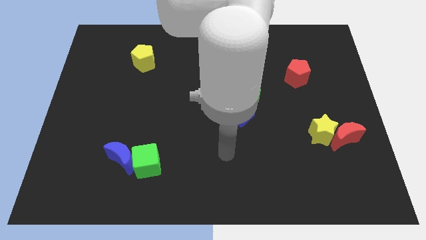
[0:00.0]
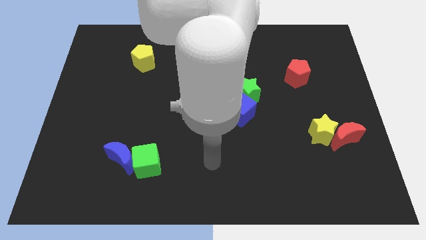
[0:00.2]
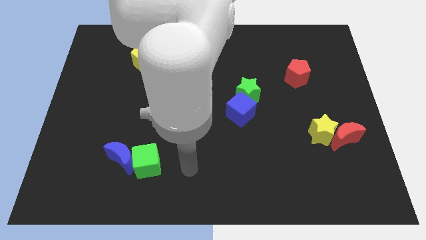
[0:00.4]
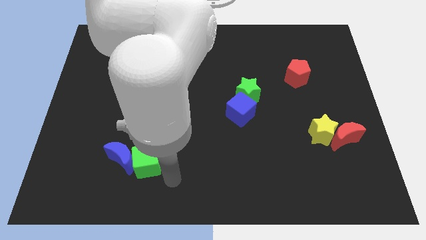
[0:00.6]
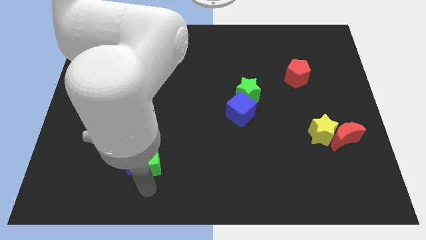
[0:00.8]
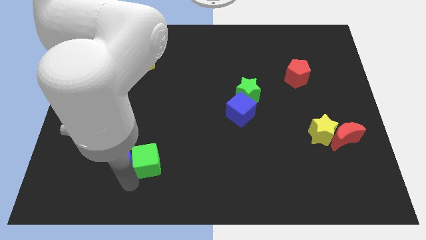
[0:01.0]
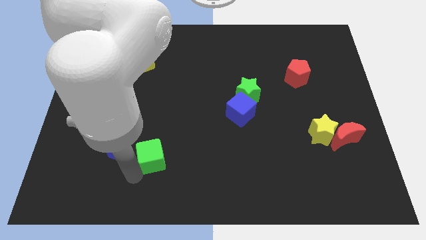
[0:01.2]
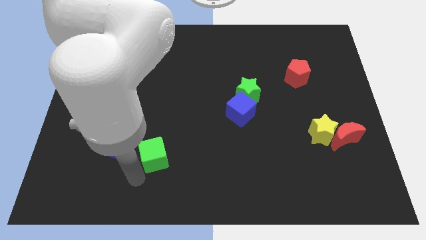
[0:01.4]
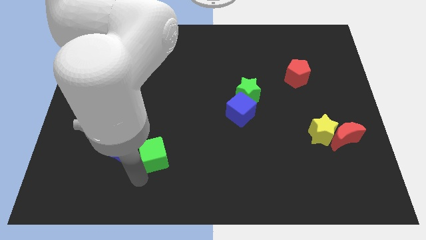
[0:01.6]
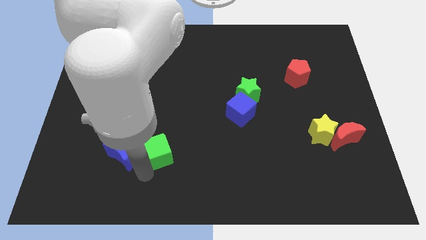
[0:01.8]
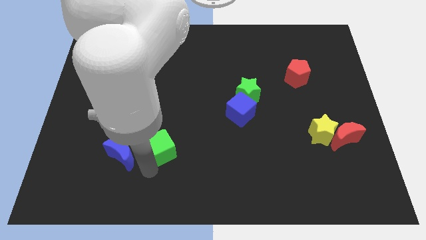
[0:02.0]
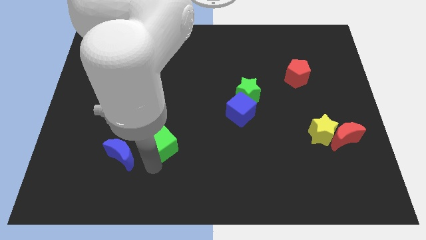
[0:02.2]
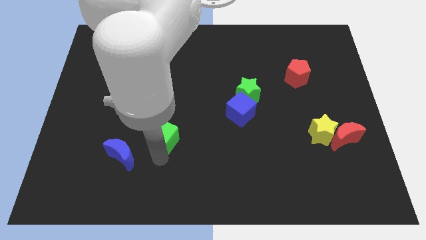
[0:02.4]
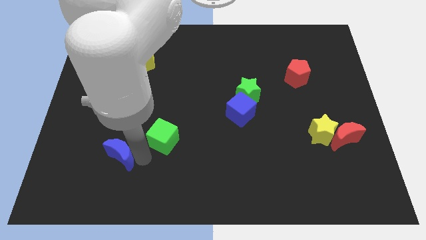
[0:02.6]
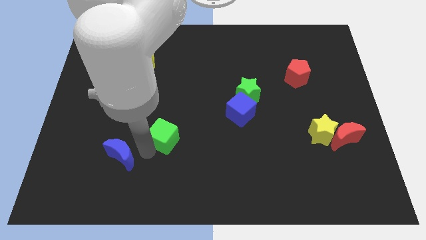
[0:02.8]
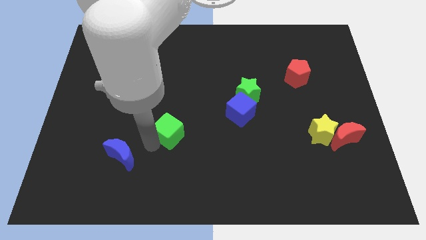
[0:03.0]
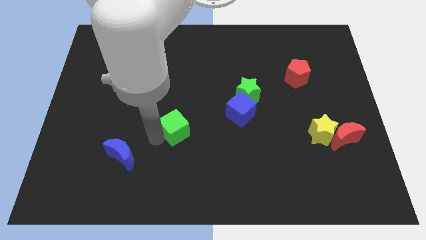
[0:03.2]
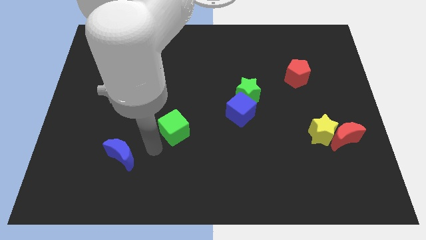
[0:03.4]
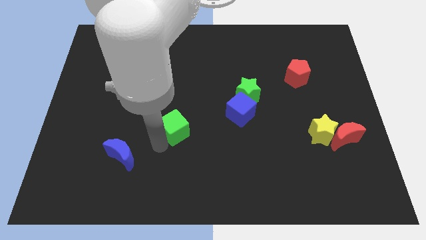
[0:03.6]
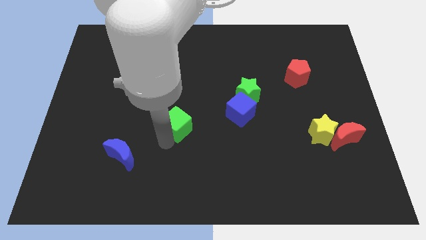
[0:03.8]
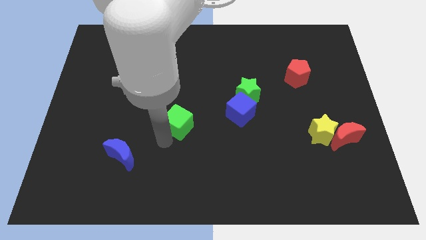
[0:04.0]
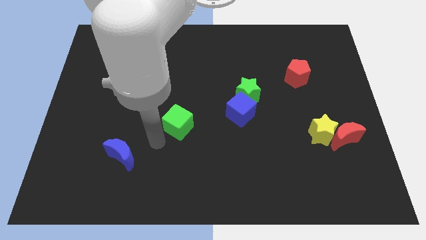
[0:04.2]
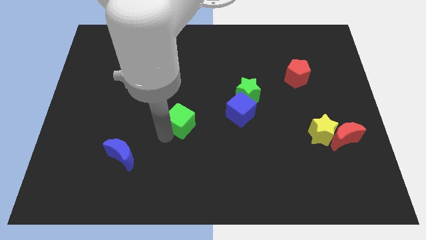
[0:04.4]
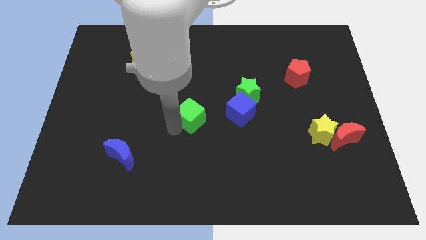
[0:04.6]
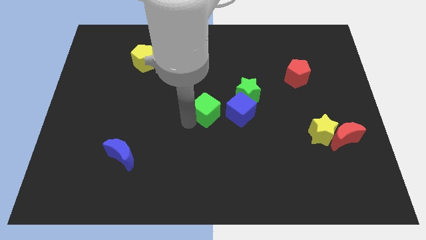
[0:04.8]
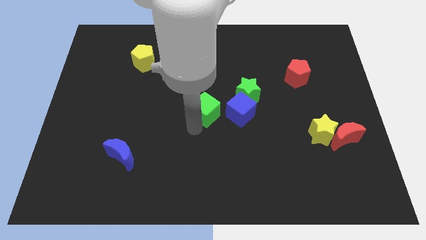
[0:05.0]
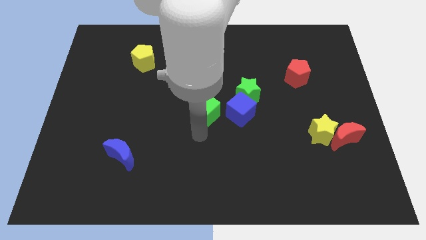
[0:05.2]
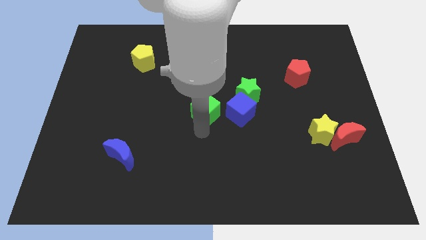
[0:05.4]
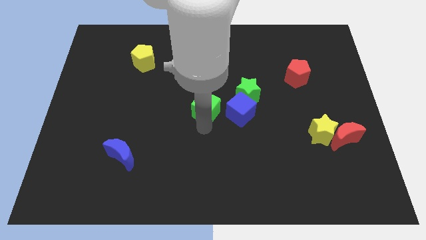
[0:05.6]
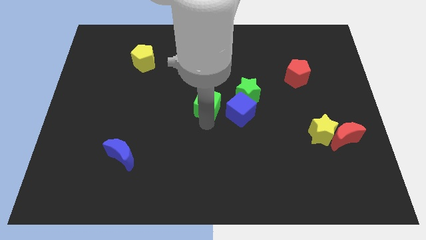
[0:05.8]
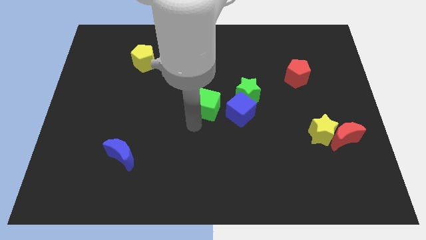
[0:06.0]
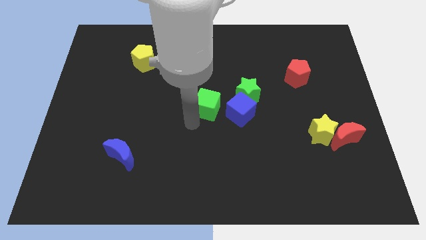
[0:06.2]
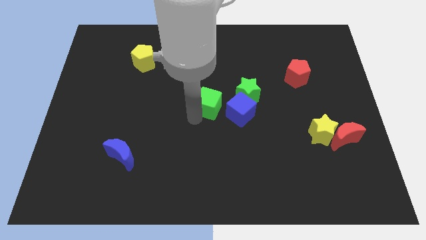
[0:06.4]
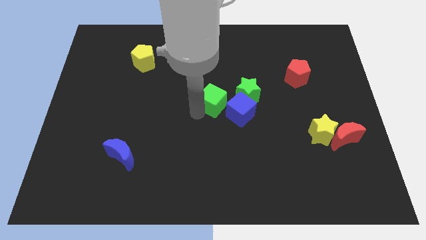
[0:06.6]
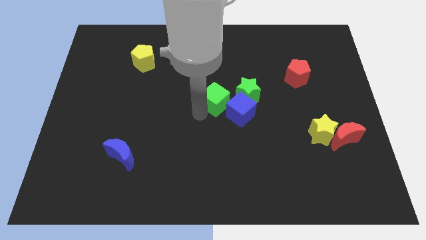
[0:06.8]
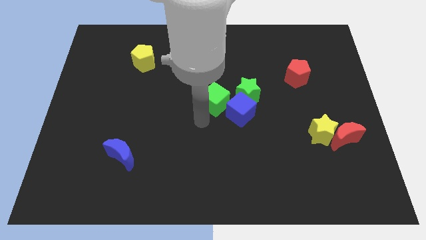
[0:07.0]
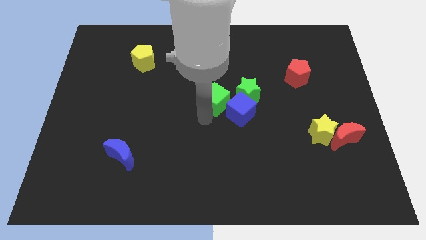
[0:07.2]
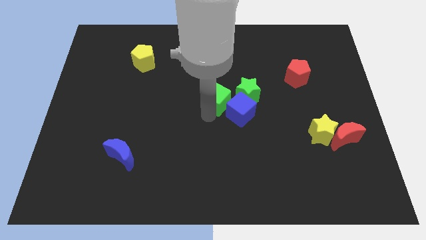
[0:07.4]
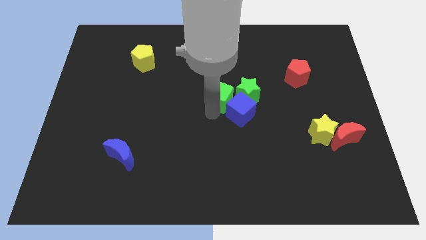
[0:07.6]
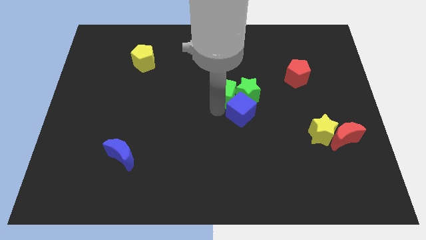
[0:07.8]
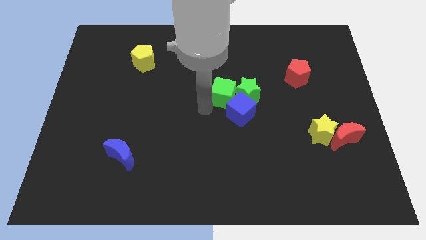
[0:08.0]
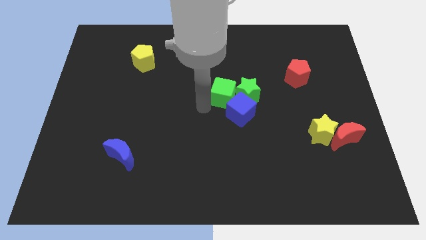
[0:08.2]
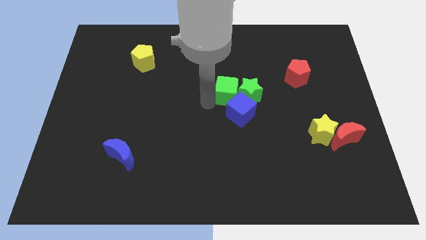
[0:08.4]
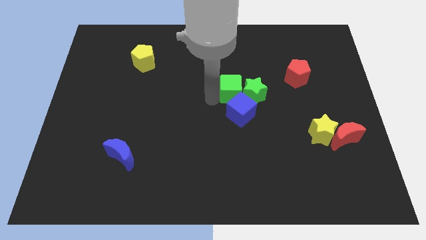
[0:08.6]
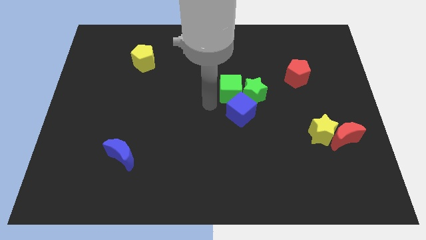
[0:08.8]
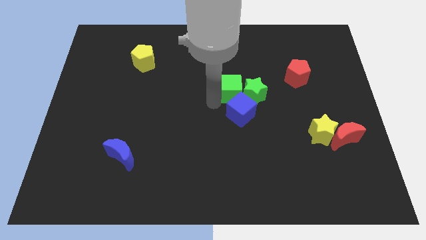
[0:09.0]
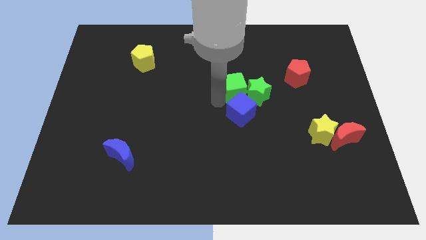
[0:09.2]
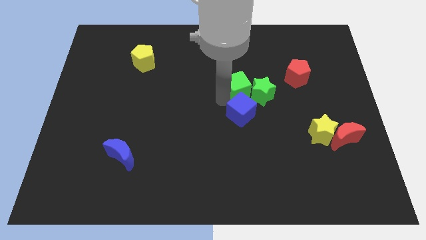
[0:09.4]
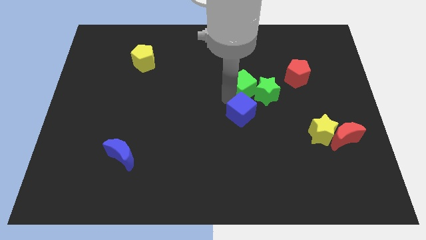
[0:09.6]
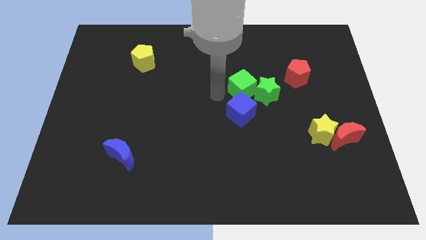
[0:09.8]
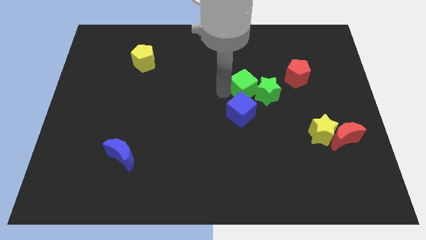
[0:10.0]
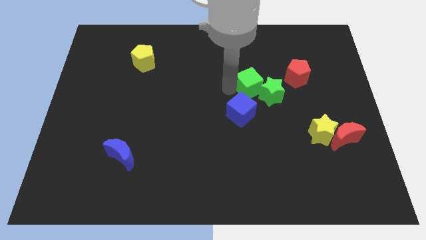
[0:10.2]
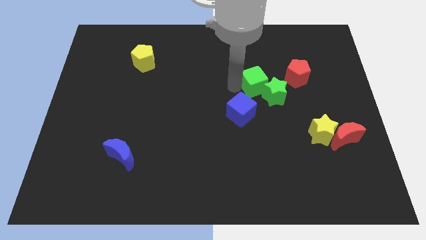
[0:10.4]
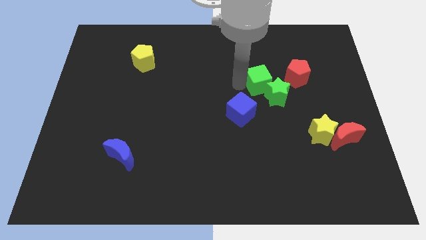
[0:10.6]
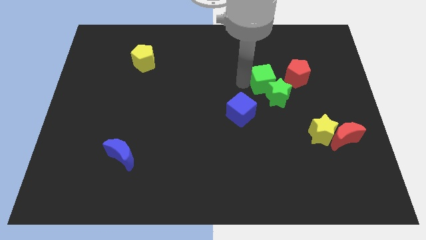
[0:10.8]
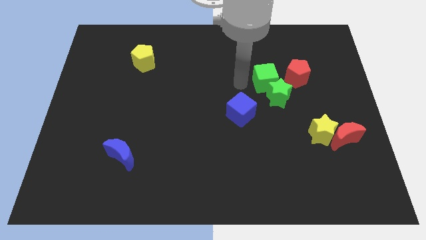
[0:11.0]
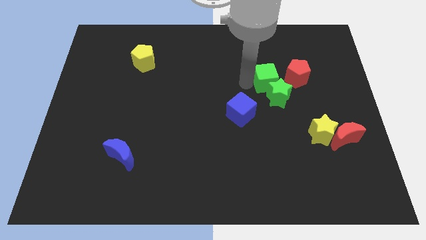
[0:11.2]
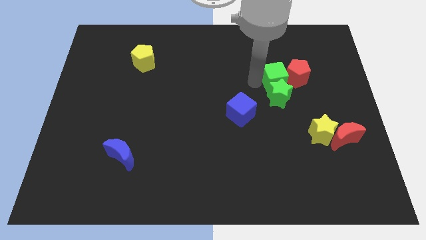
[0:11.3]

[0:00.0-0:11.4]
put the green cube next to the red pentagon

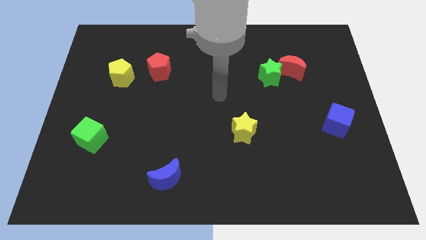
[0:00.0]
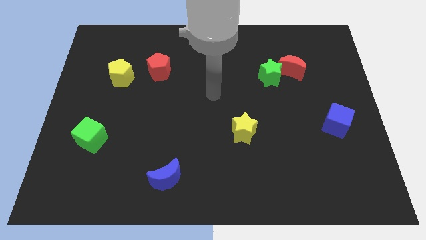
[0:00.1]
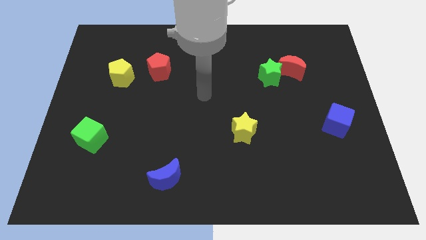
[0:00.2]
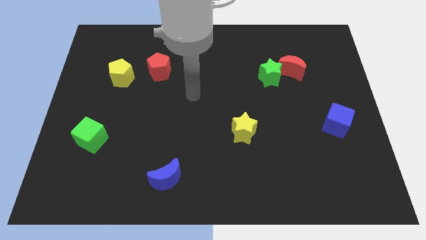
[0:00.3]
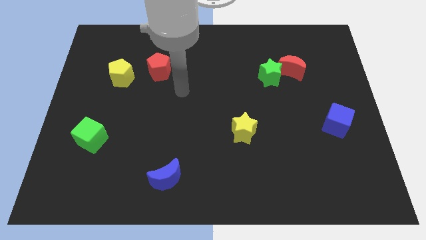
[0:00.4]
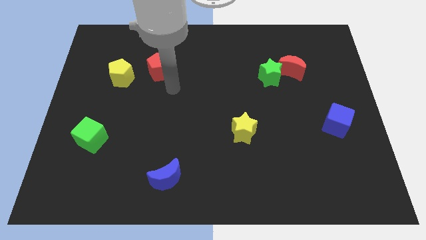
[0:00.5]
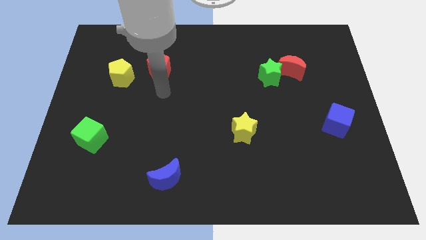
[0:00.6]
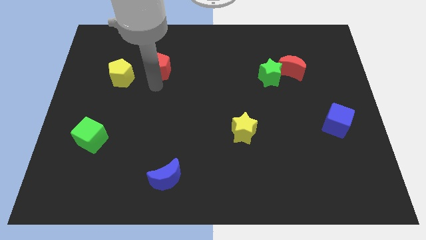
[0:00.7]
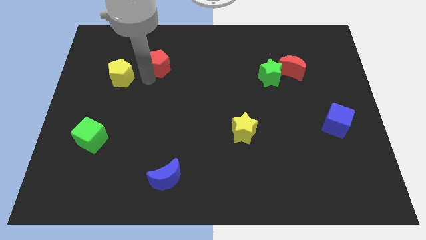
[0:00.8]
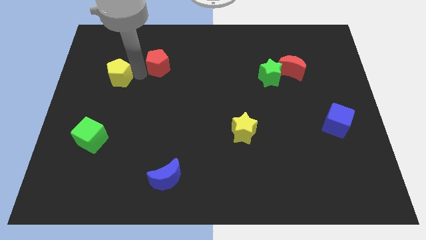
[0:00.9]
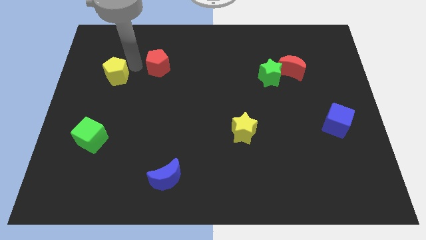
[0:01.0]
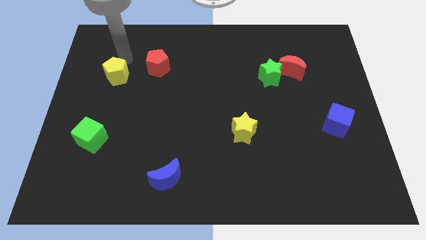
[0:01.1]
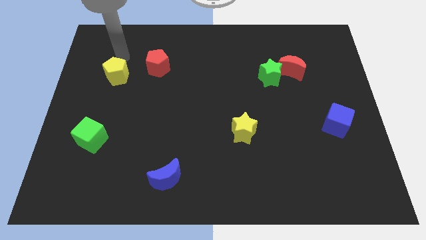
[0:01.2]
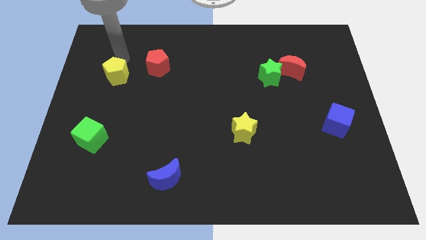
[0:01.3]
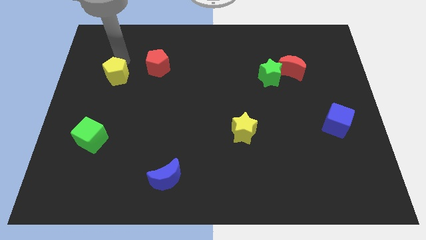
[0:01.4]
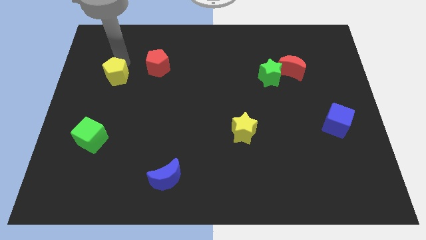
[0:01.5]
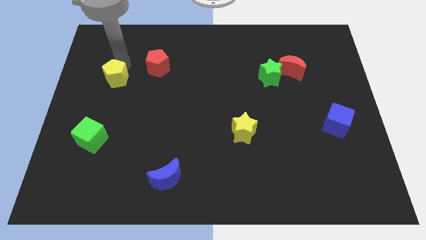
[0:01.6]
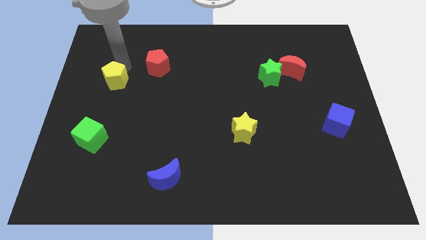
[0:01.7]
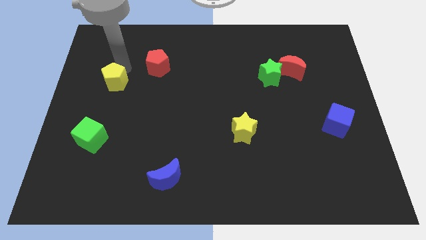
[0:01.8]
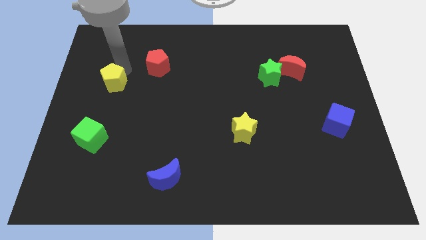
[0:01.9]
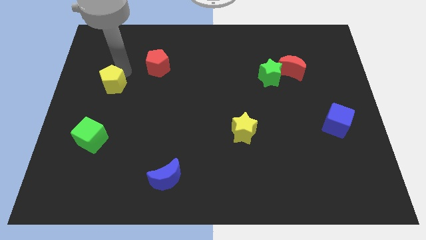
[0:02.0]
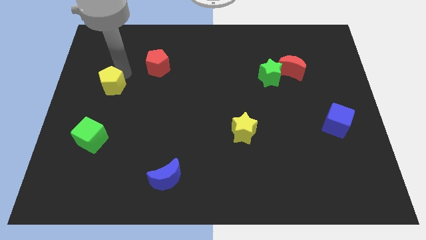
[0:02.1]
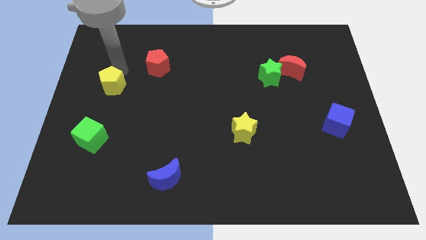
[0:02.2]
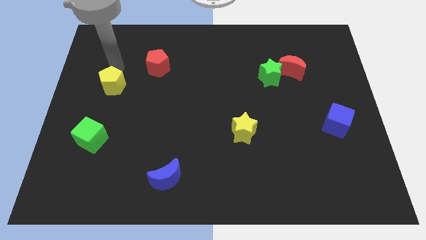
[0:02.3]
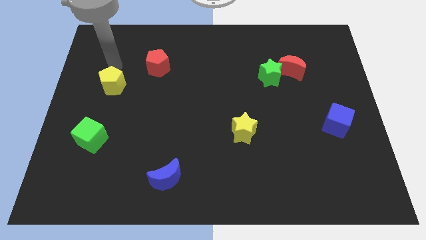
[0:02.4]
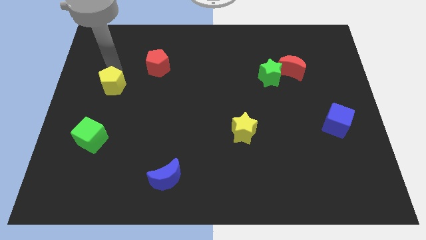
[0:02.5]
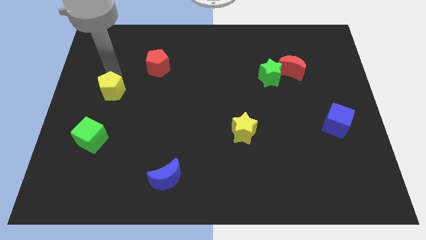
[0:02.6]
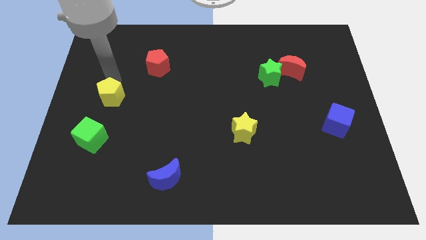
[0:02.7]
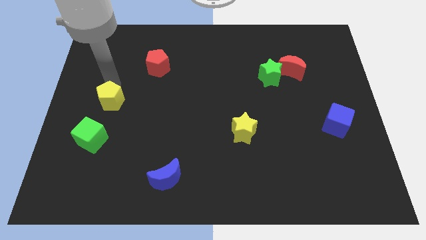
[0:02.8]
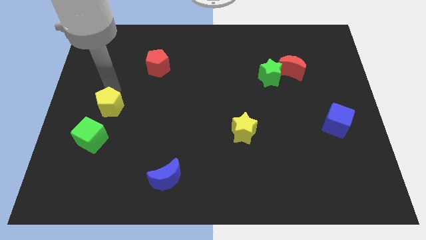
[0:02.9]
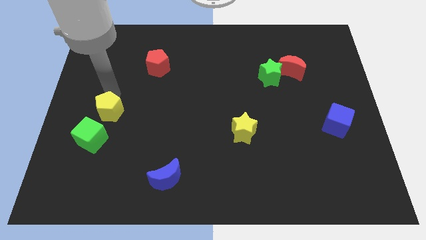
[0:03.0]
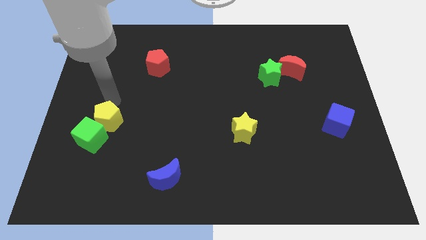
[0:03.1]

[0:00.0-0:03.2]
put the yellow pentagon next to the green cube
